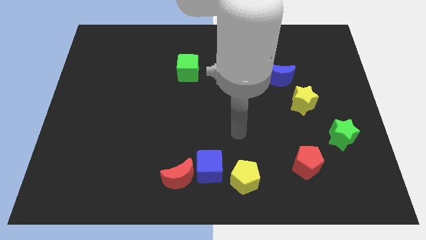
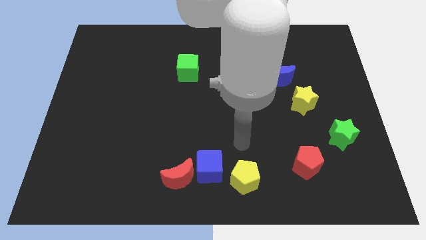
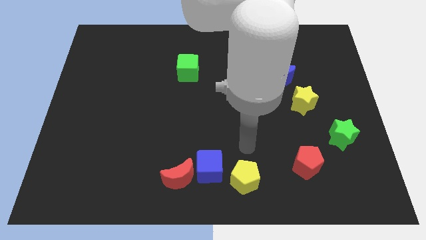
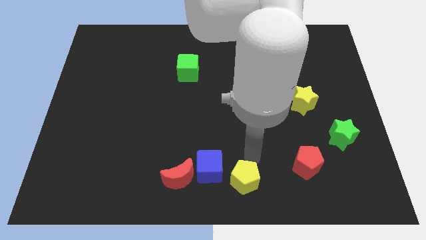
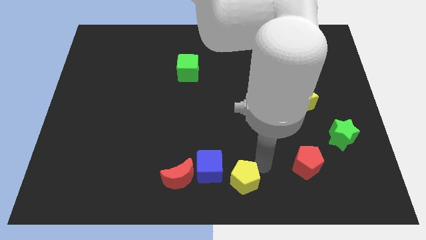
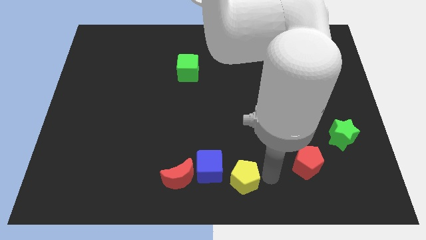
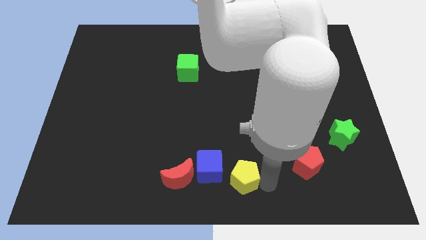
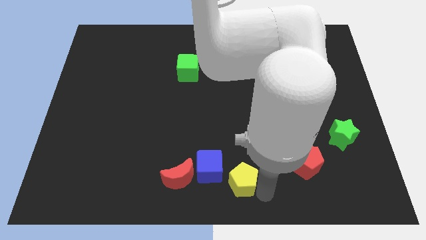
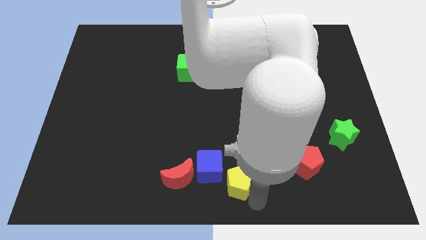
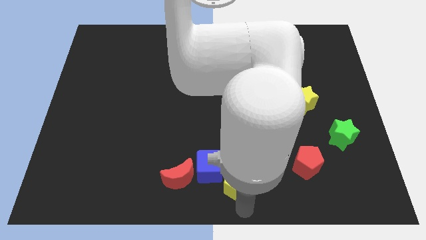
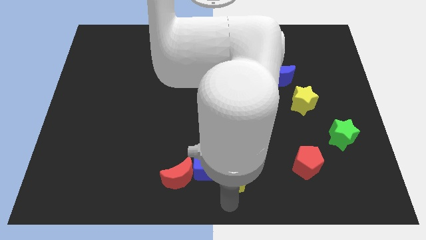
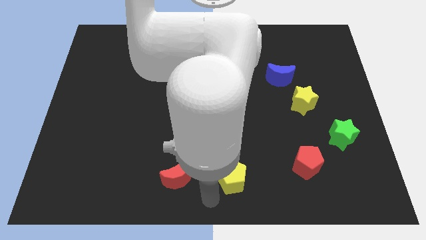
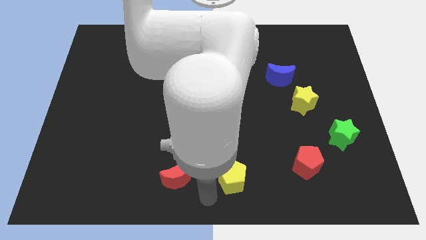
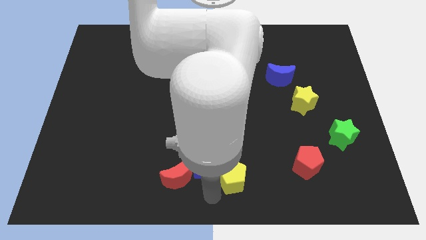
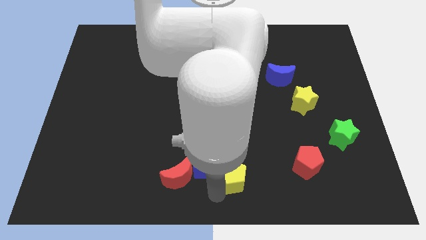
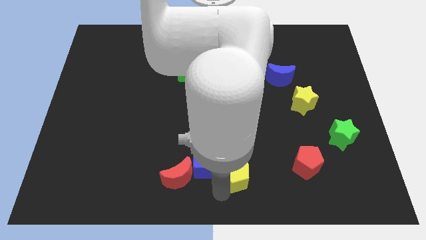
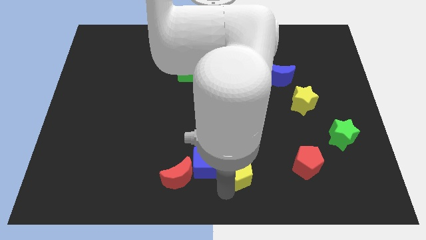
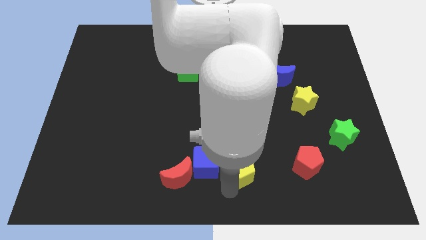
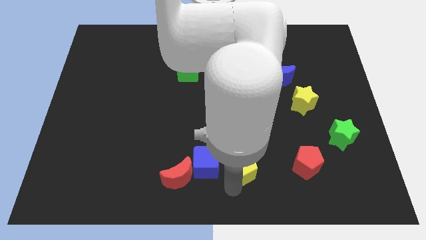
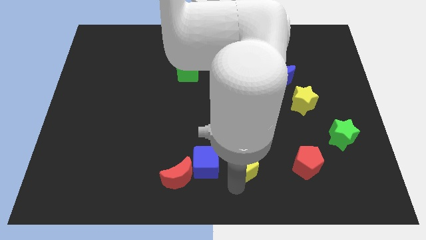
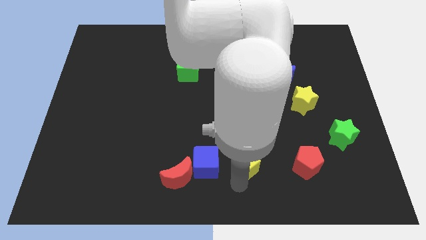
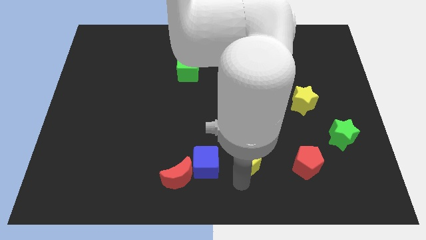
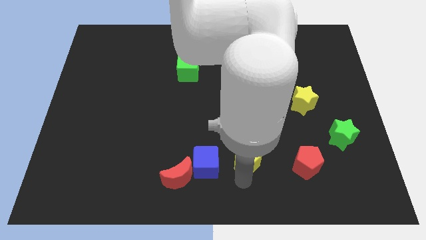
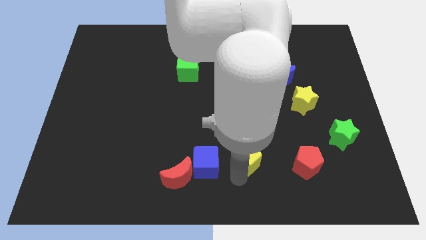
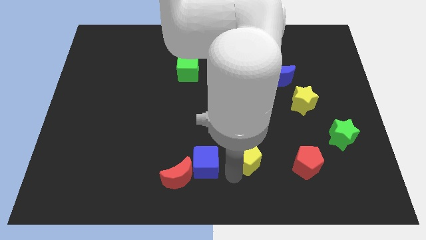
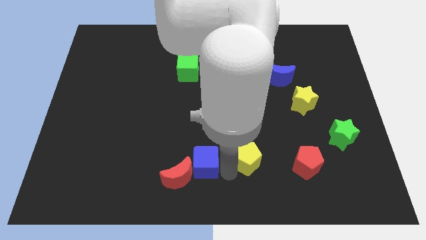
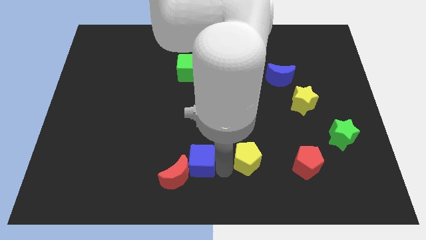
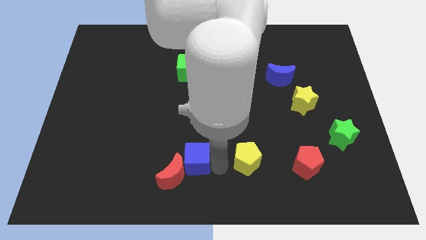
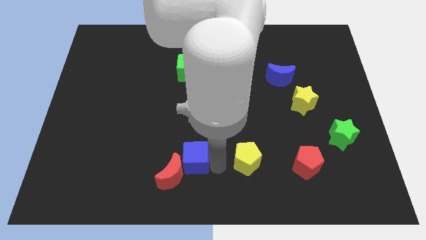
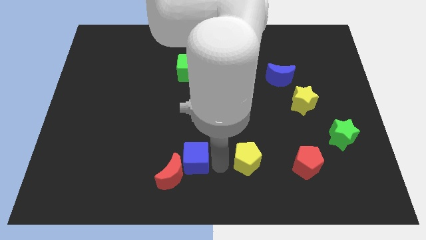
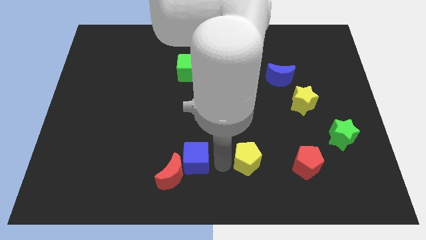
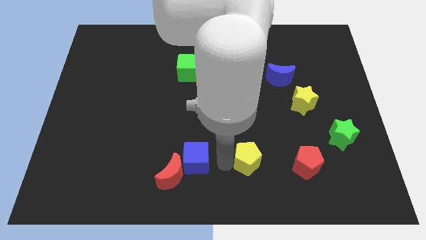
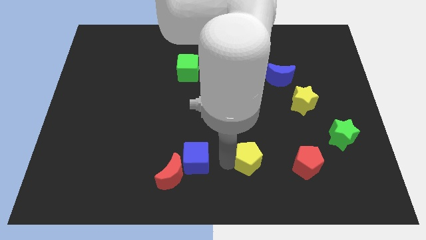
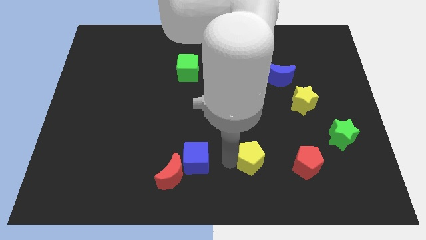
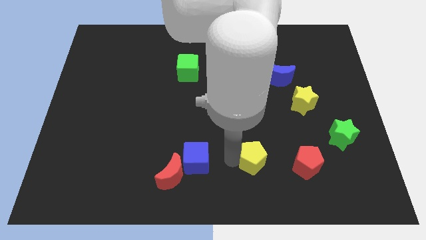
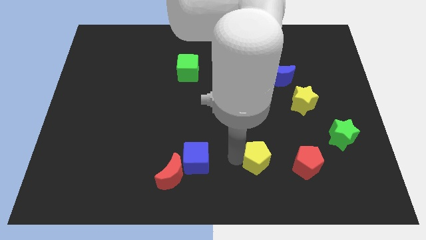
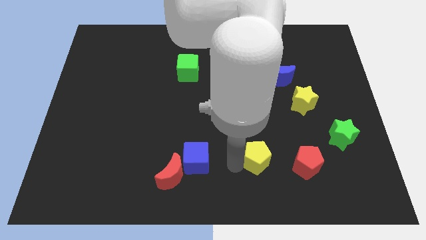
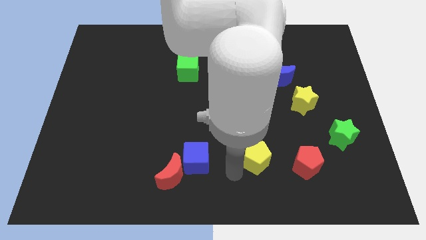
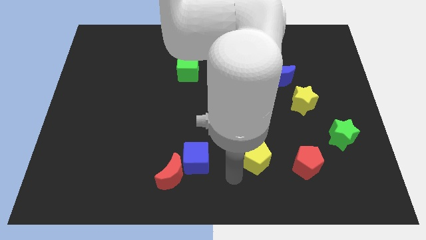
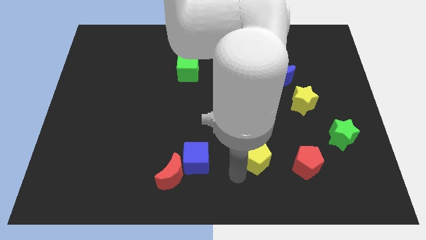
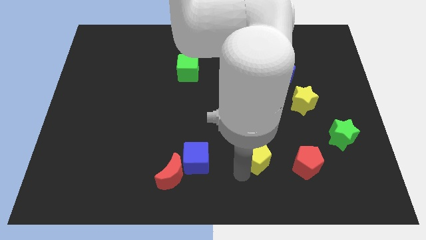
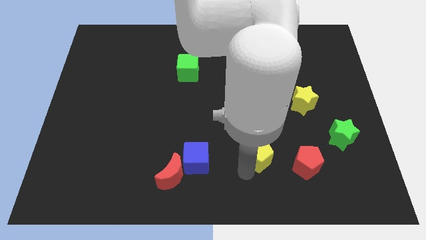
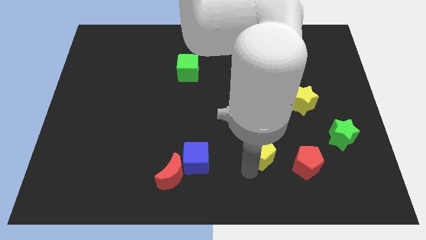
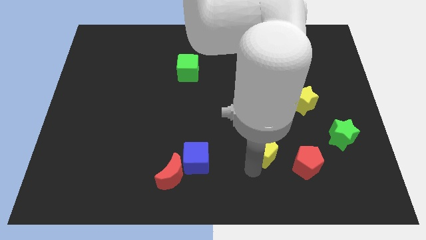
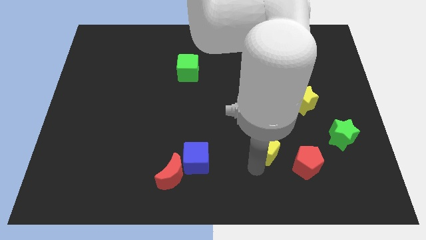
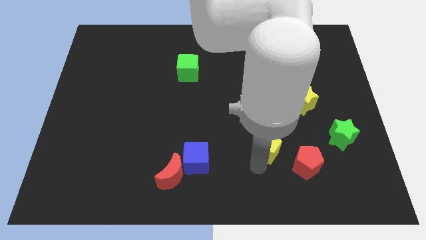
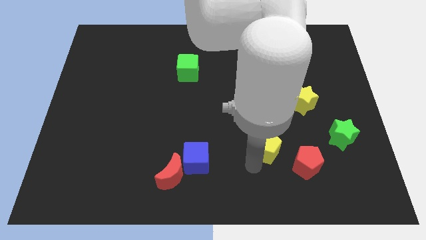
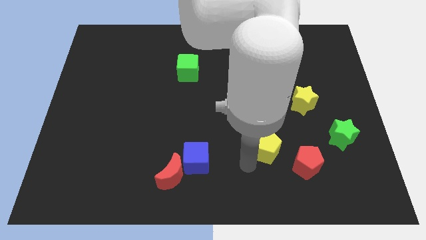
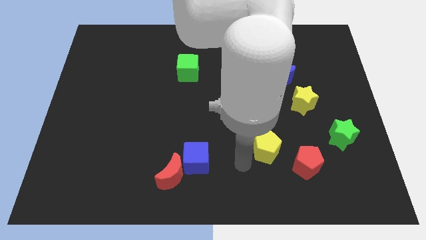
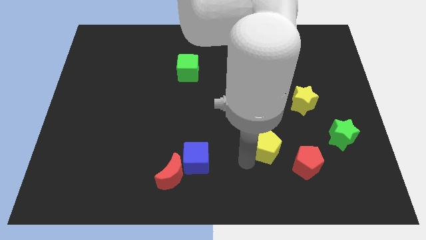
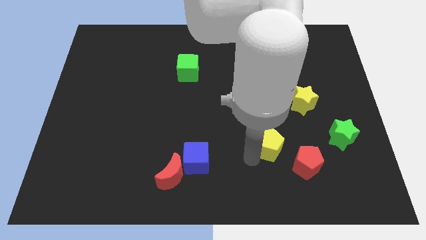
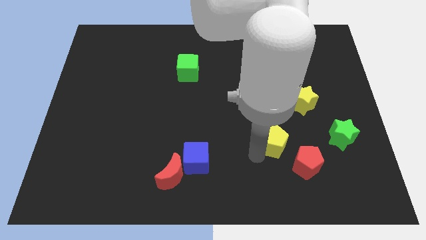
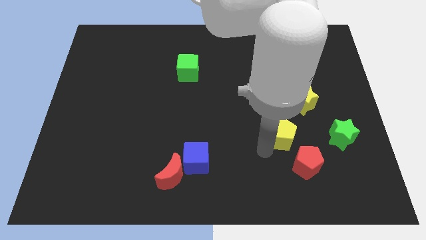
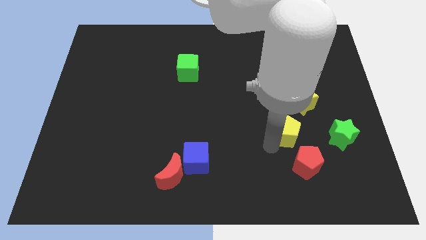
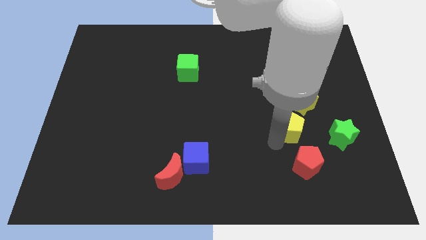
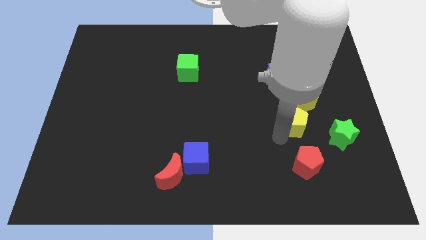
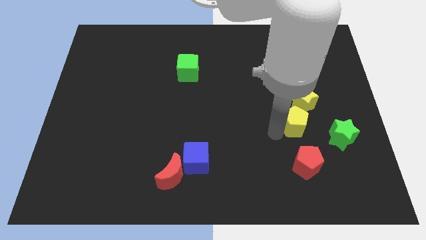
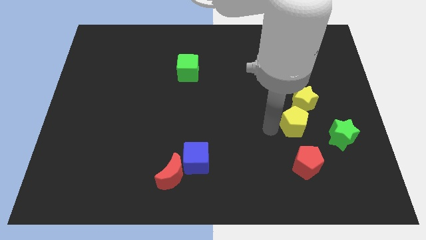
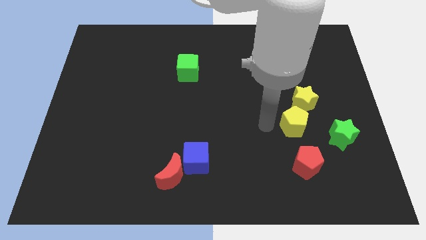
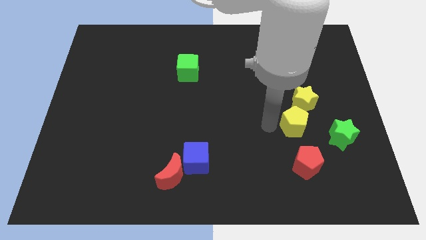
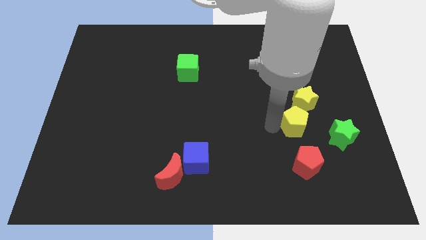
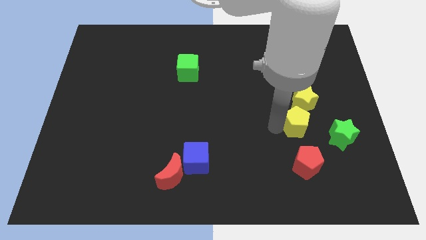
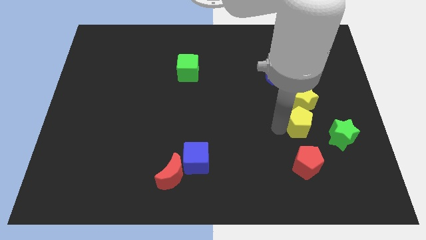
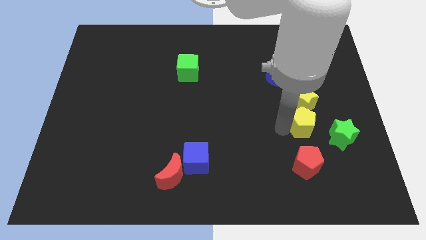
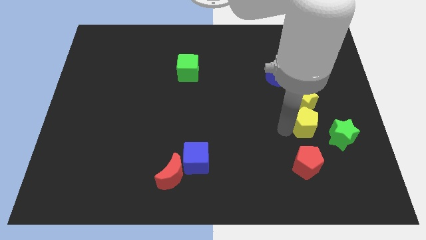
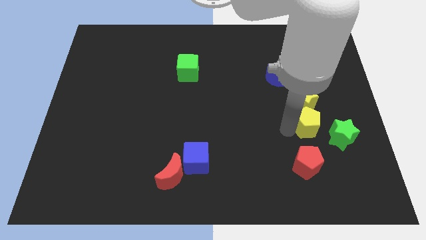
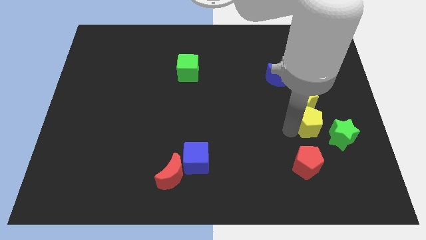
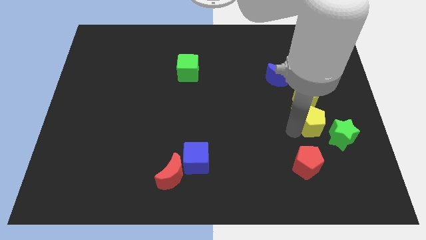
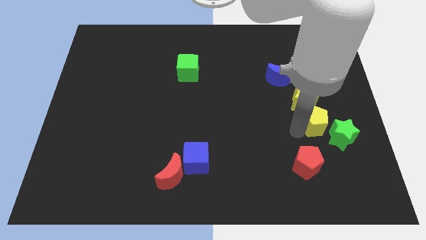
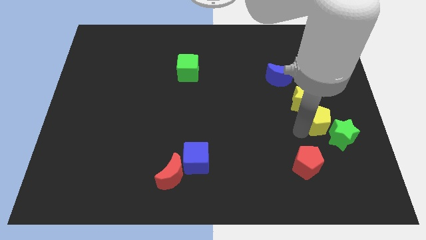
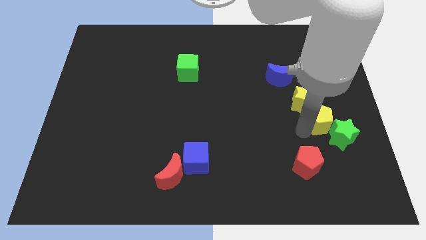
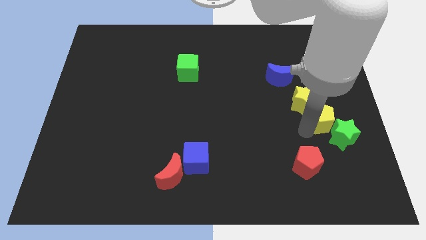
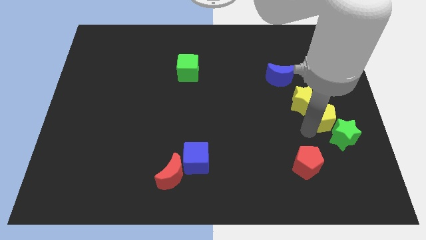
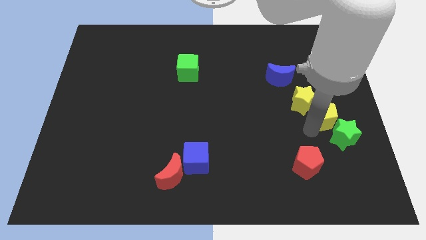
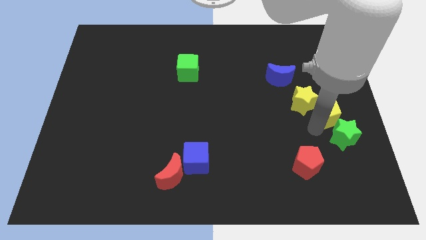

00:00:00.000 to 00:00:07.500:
slide the yellow pentagon to the right side of the board
